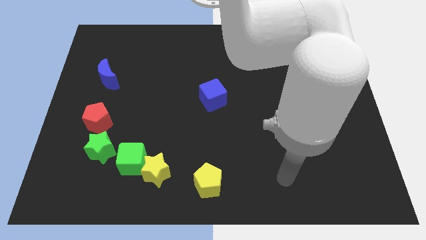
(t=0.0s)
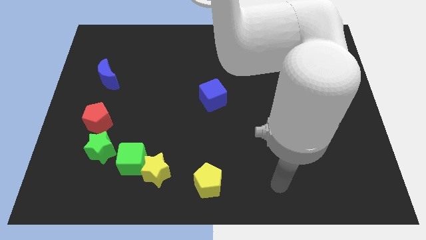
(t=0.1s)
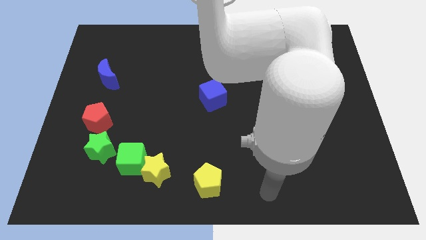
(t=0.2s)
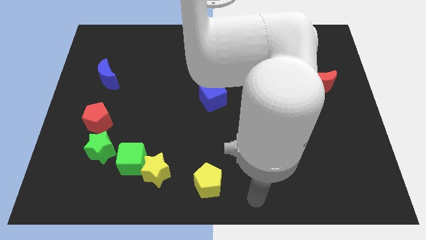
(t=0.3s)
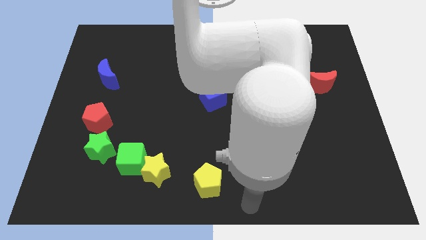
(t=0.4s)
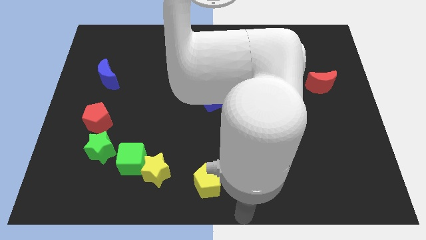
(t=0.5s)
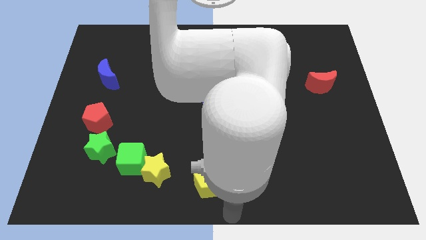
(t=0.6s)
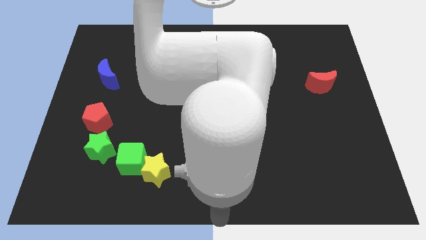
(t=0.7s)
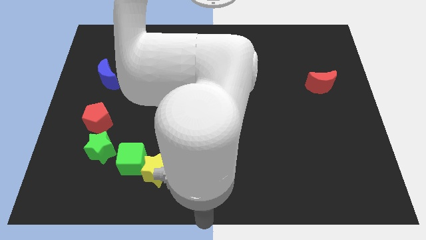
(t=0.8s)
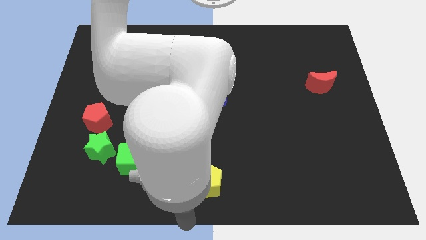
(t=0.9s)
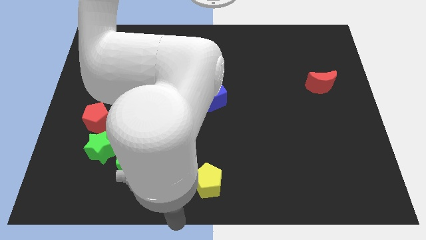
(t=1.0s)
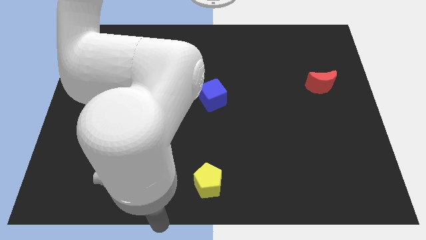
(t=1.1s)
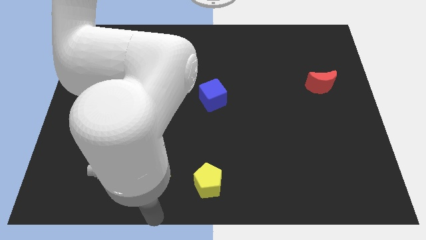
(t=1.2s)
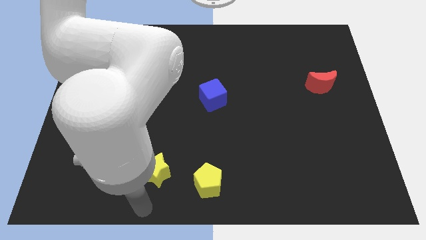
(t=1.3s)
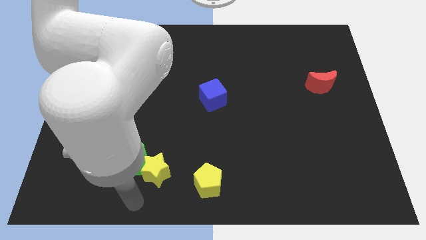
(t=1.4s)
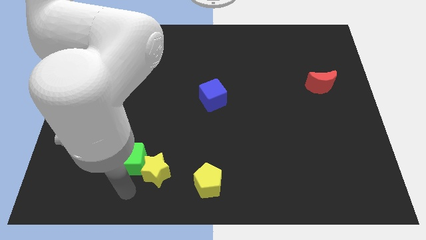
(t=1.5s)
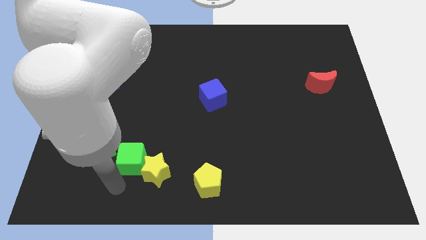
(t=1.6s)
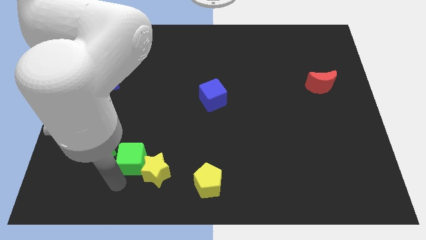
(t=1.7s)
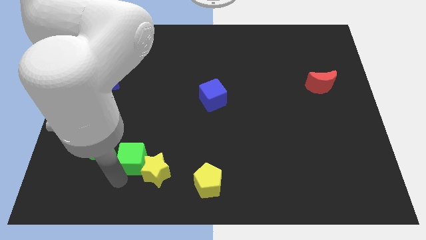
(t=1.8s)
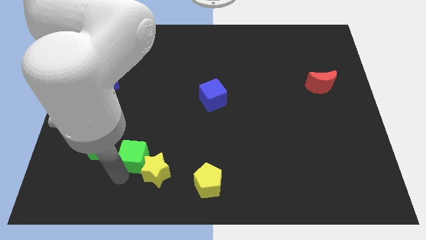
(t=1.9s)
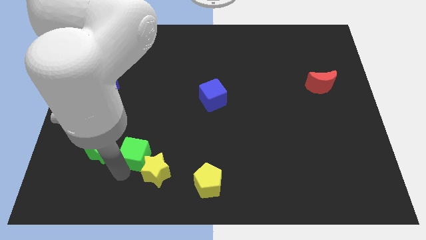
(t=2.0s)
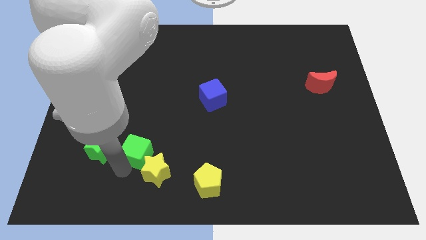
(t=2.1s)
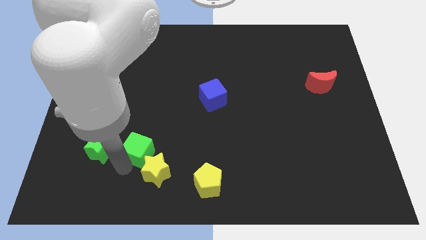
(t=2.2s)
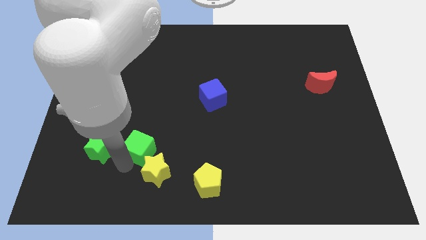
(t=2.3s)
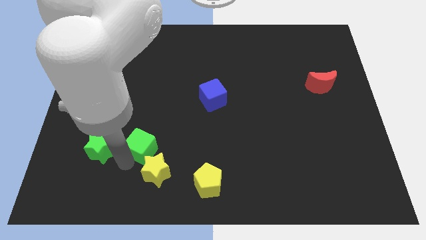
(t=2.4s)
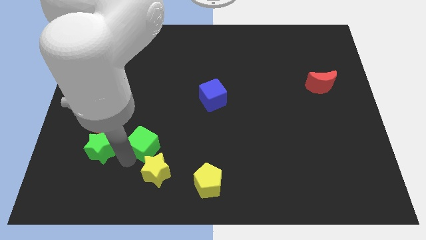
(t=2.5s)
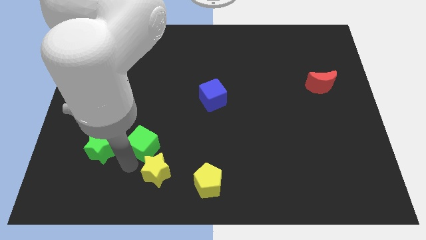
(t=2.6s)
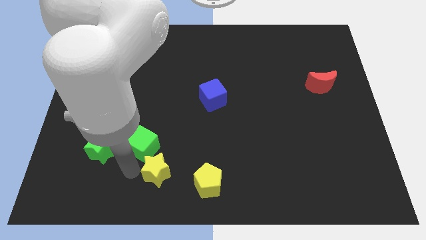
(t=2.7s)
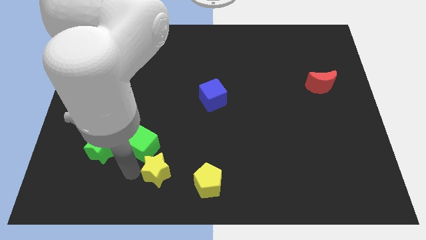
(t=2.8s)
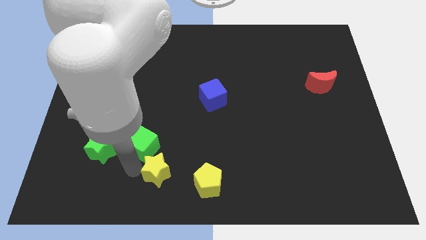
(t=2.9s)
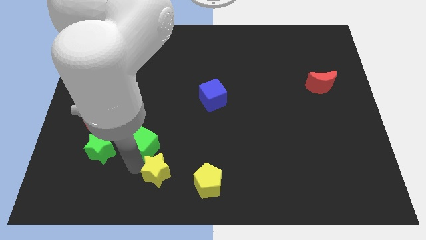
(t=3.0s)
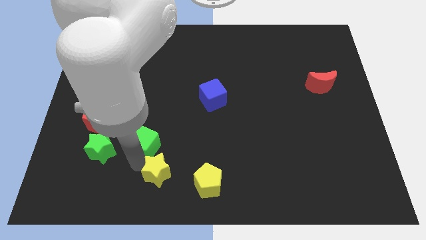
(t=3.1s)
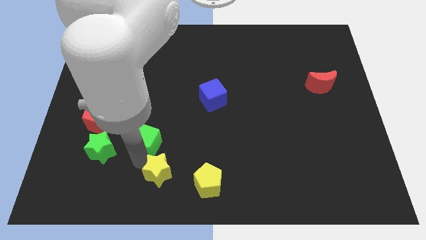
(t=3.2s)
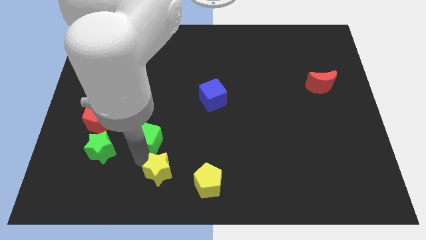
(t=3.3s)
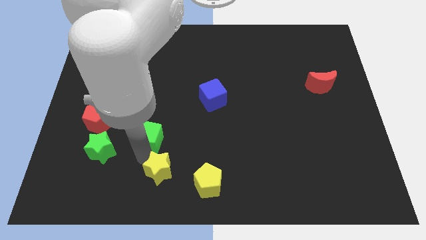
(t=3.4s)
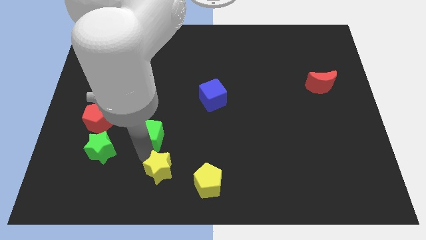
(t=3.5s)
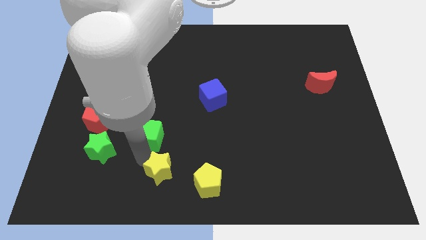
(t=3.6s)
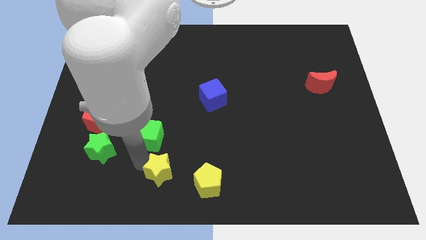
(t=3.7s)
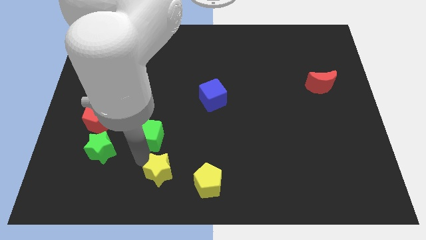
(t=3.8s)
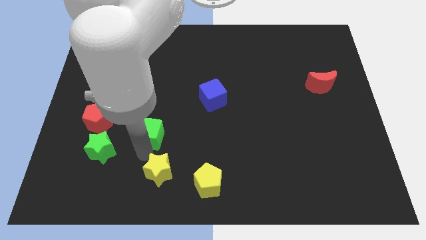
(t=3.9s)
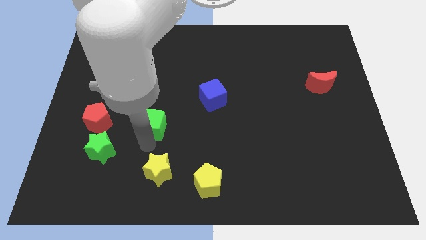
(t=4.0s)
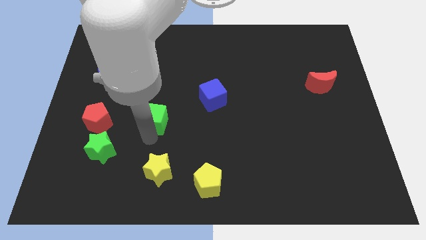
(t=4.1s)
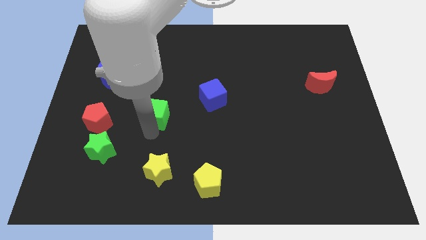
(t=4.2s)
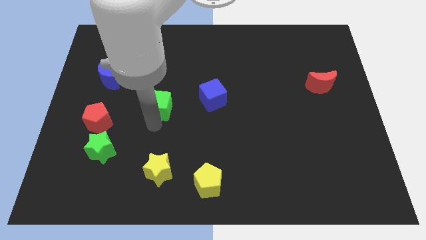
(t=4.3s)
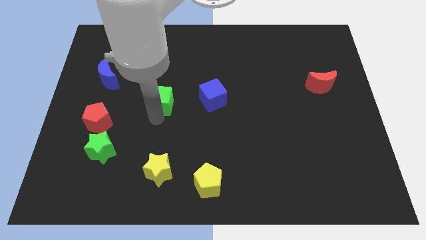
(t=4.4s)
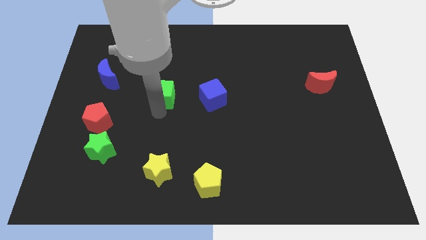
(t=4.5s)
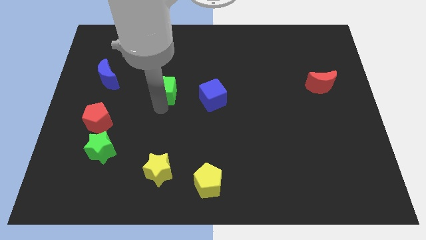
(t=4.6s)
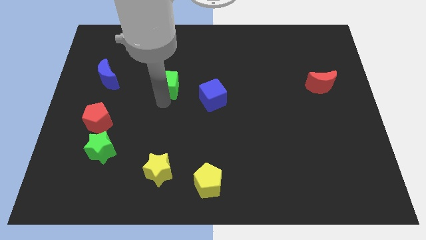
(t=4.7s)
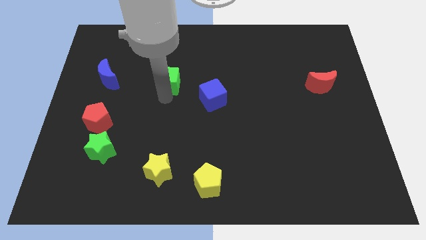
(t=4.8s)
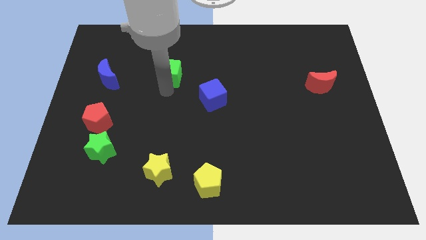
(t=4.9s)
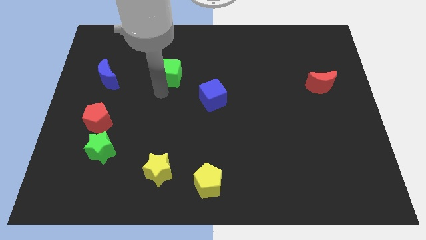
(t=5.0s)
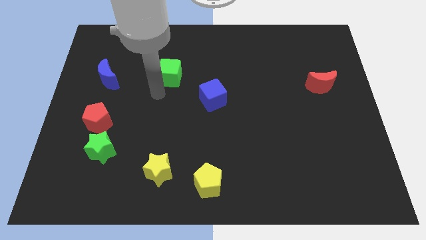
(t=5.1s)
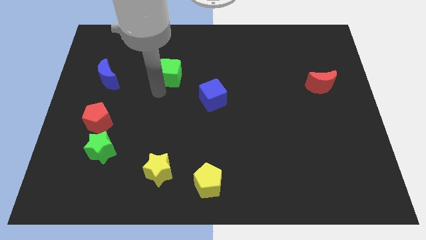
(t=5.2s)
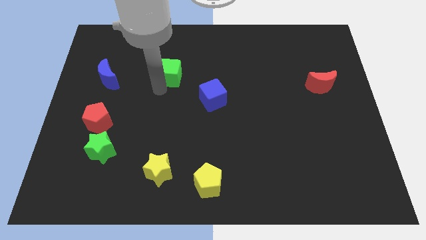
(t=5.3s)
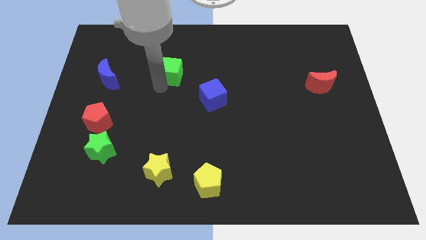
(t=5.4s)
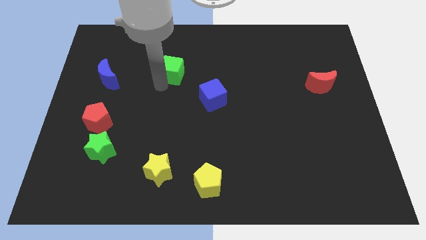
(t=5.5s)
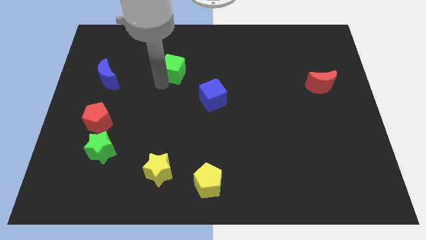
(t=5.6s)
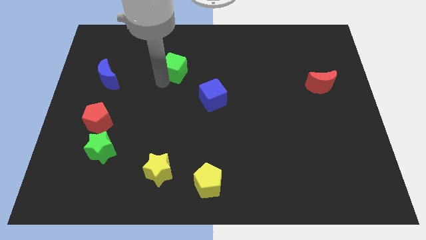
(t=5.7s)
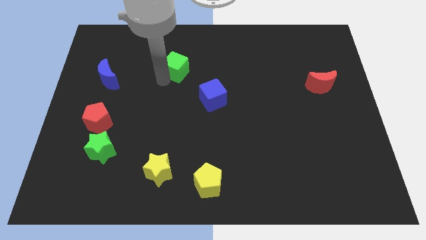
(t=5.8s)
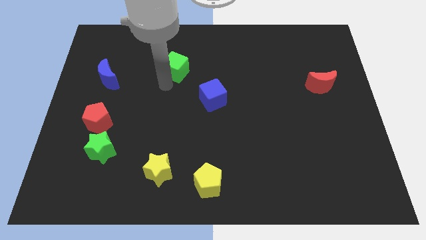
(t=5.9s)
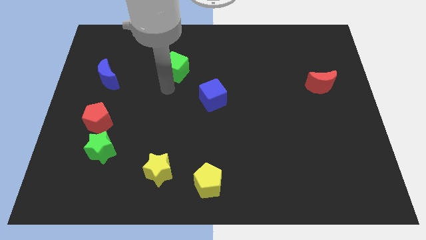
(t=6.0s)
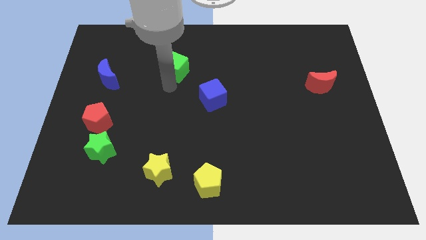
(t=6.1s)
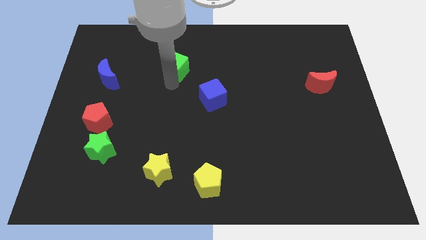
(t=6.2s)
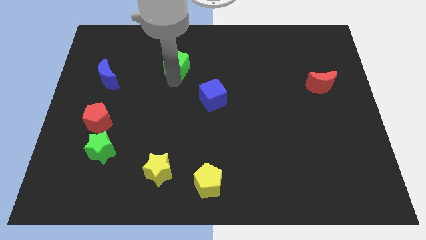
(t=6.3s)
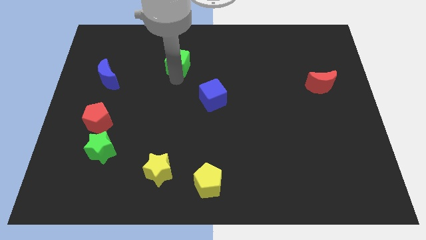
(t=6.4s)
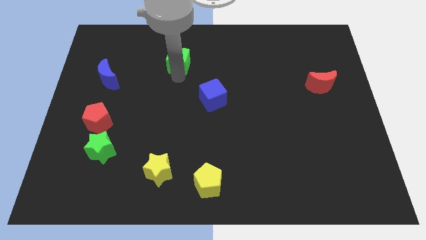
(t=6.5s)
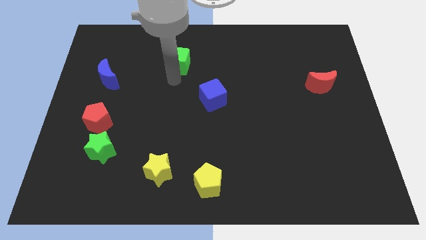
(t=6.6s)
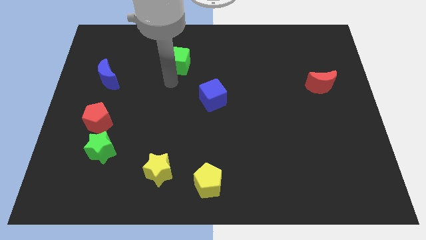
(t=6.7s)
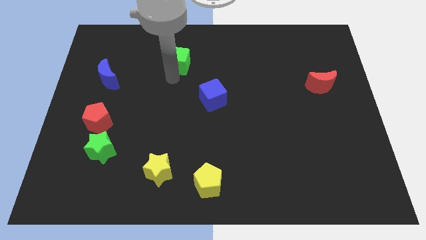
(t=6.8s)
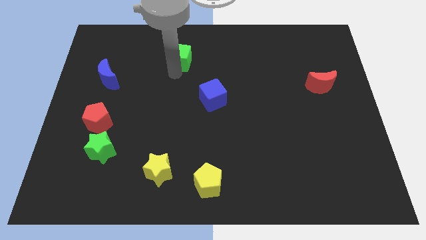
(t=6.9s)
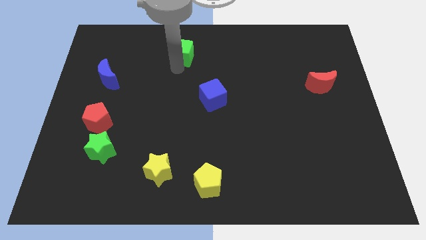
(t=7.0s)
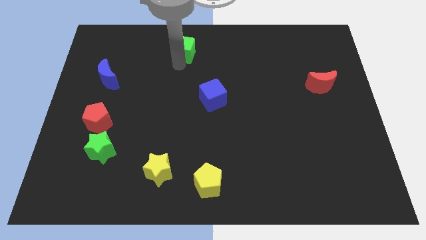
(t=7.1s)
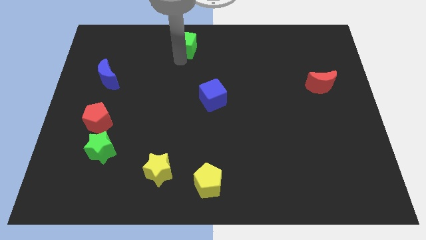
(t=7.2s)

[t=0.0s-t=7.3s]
slide the green cube to the top side
